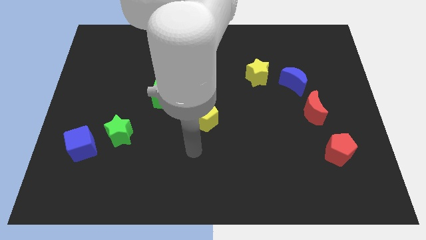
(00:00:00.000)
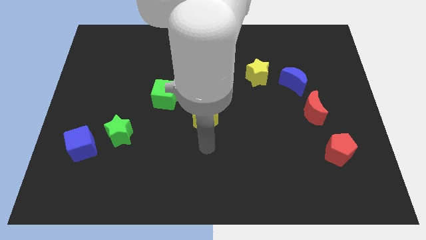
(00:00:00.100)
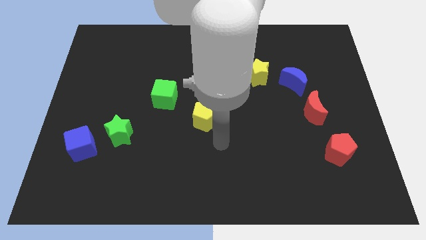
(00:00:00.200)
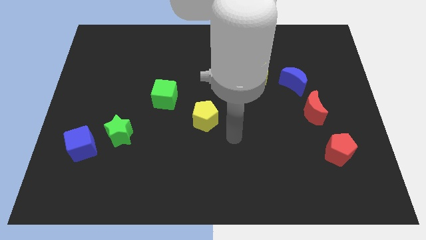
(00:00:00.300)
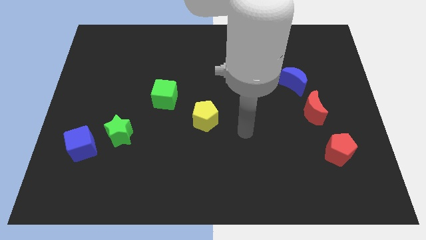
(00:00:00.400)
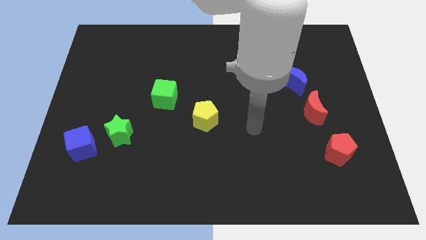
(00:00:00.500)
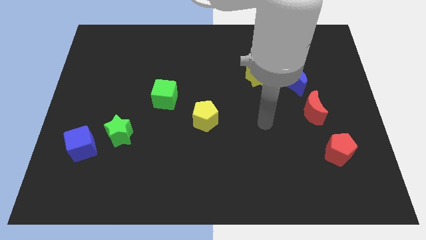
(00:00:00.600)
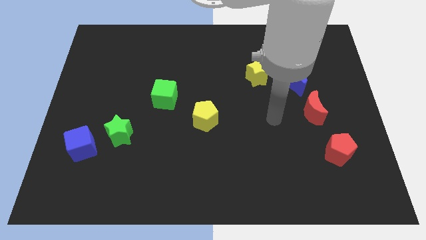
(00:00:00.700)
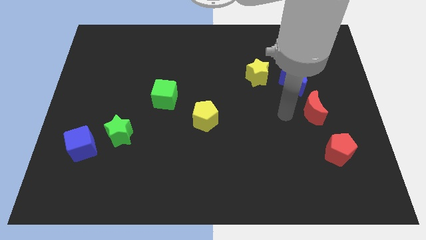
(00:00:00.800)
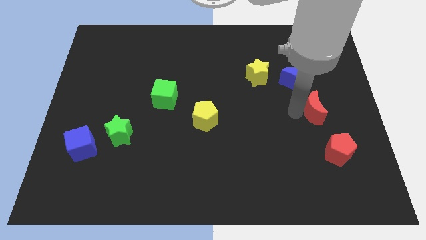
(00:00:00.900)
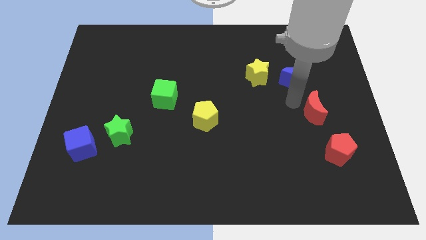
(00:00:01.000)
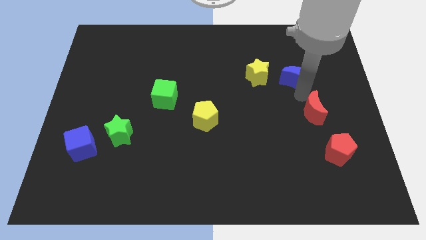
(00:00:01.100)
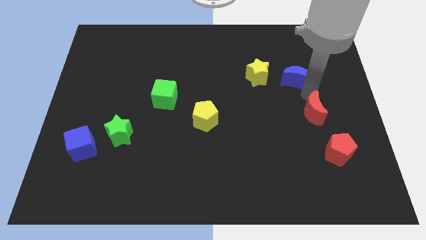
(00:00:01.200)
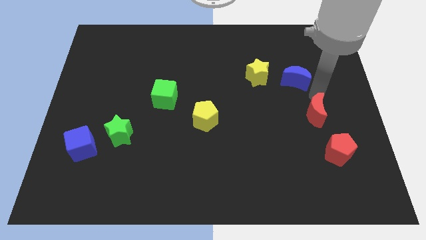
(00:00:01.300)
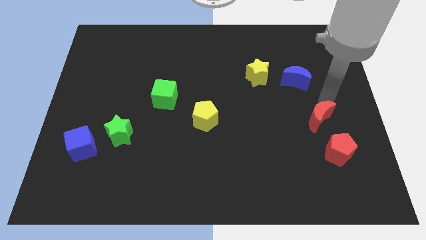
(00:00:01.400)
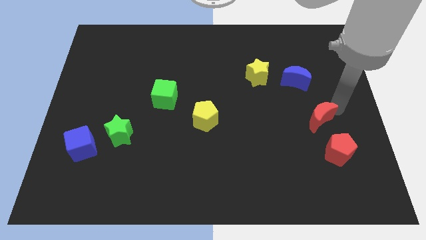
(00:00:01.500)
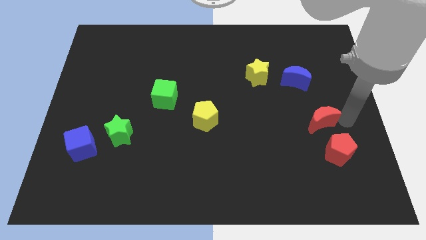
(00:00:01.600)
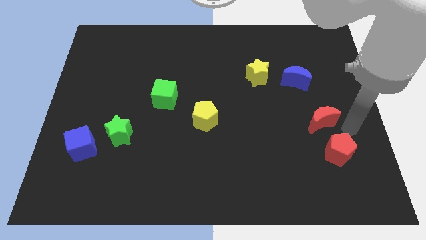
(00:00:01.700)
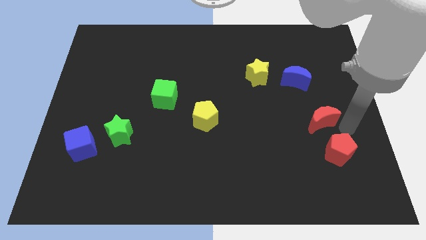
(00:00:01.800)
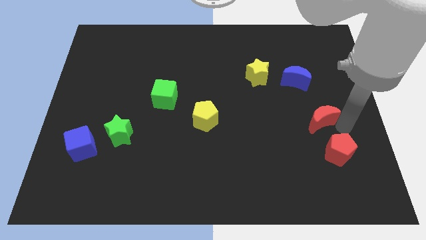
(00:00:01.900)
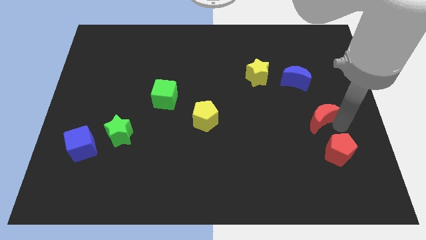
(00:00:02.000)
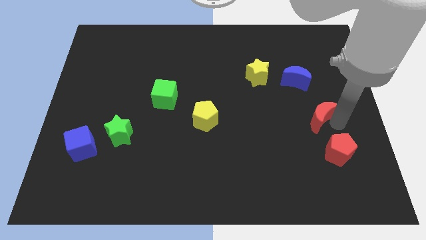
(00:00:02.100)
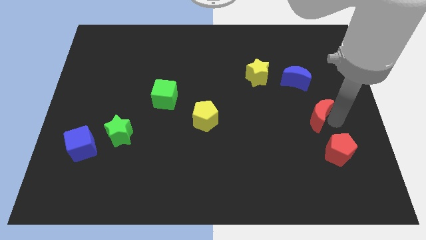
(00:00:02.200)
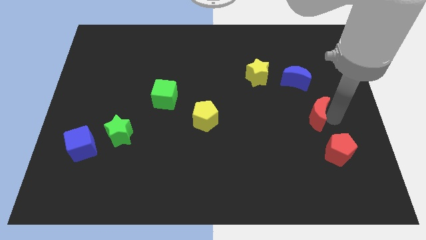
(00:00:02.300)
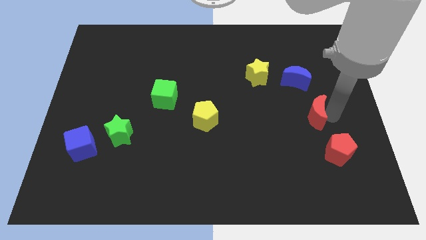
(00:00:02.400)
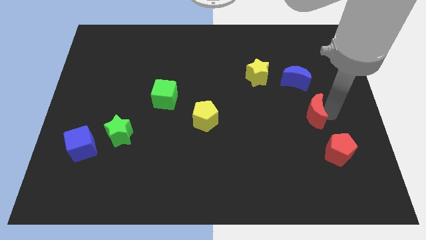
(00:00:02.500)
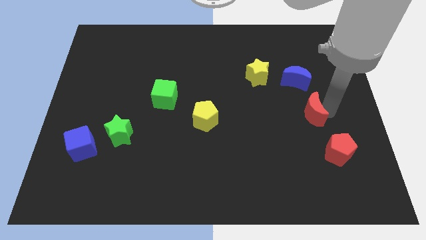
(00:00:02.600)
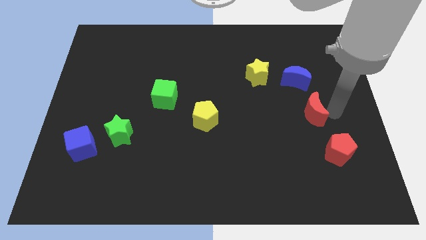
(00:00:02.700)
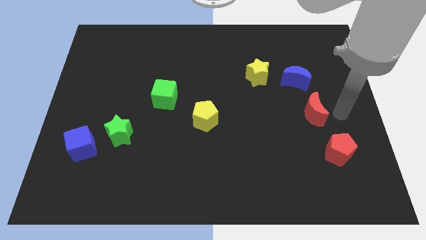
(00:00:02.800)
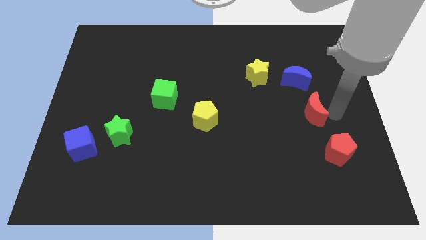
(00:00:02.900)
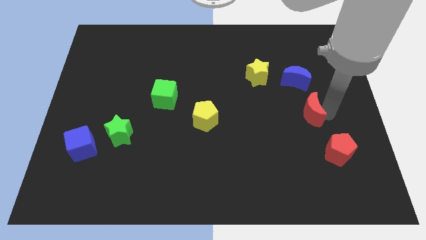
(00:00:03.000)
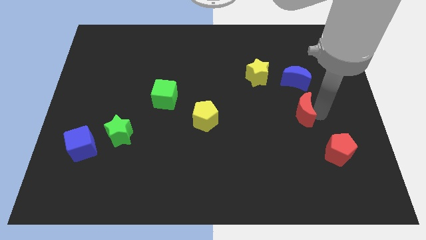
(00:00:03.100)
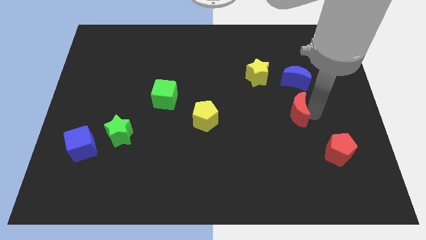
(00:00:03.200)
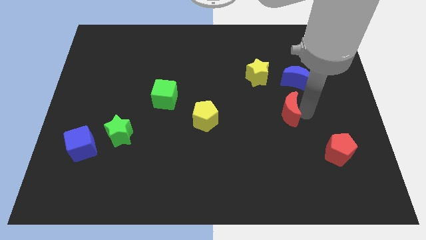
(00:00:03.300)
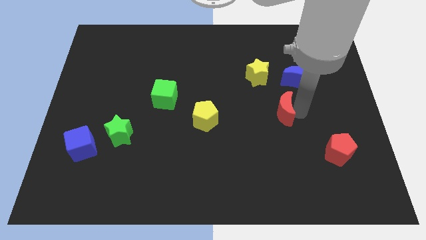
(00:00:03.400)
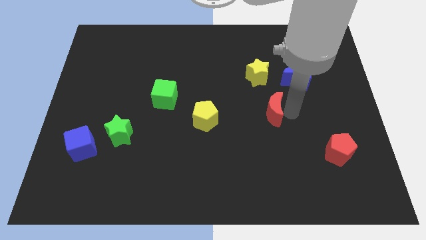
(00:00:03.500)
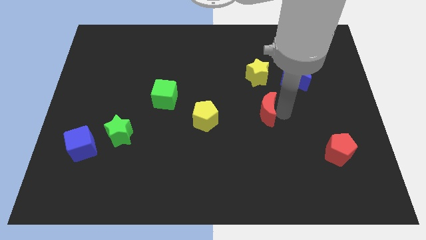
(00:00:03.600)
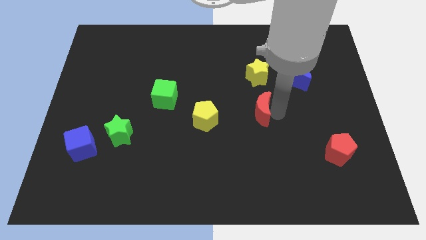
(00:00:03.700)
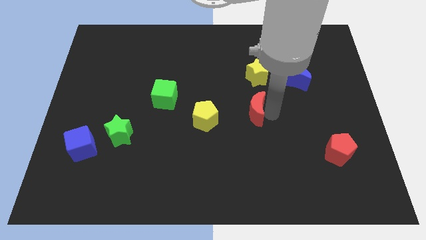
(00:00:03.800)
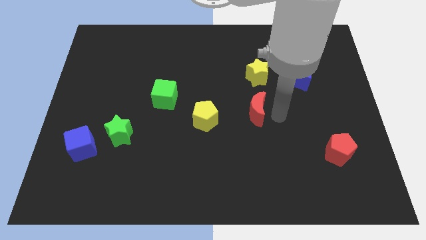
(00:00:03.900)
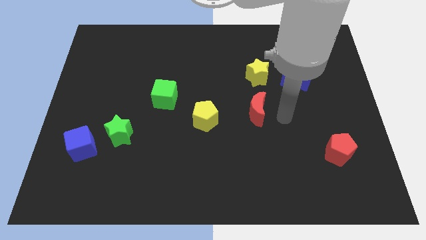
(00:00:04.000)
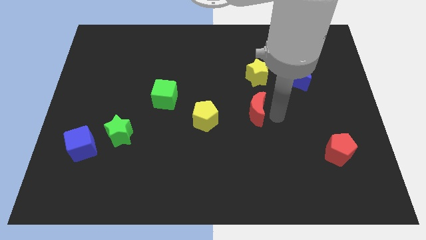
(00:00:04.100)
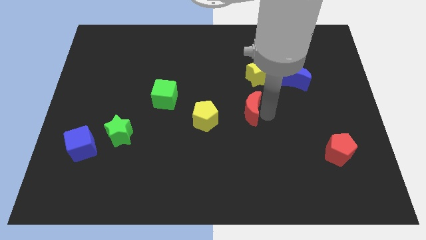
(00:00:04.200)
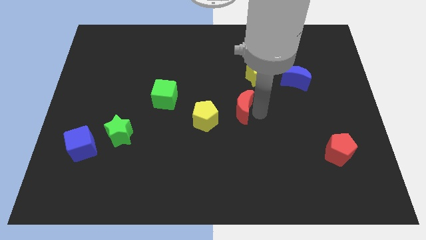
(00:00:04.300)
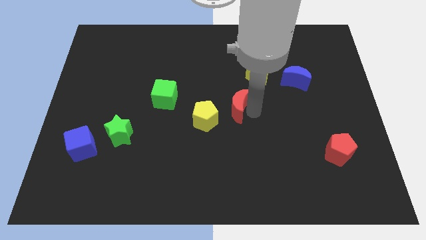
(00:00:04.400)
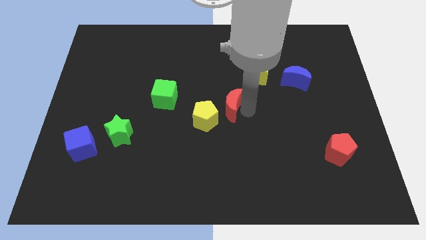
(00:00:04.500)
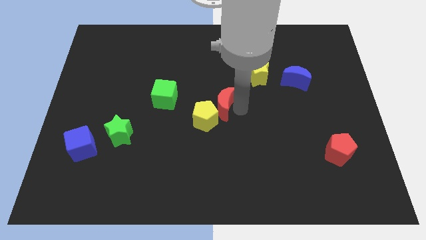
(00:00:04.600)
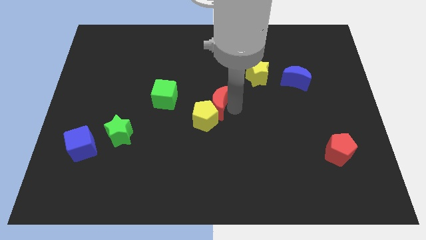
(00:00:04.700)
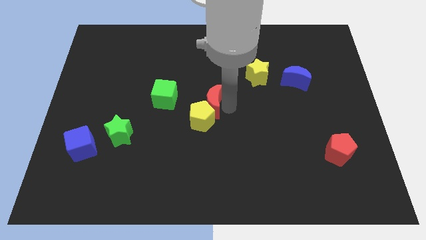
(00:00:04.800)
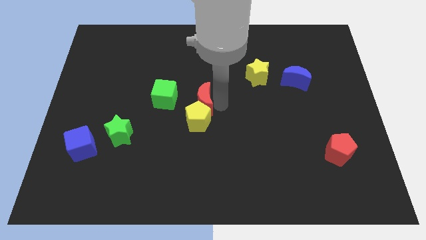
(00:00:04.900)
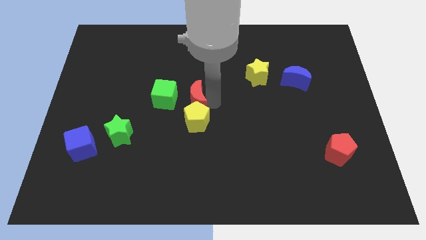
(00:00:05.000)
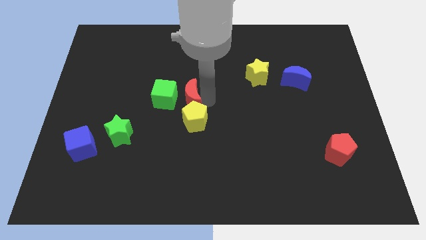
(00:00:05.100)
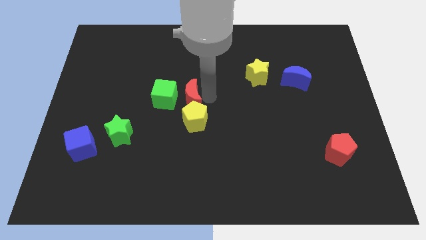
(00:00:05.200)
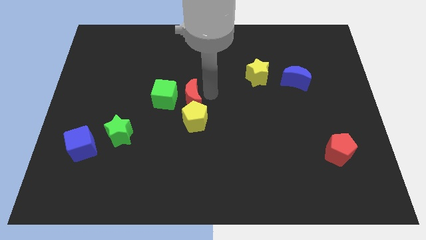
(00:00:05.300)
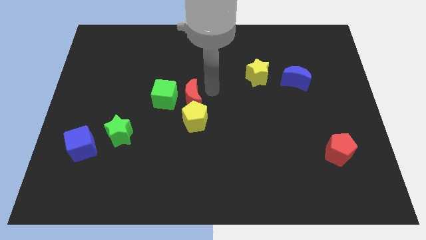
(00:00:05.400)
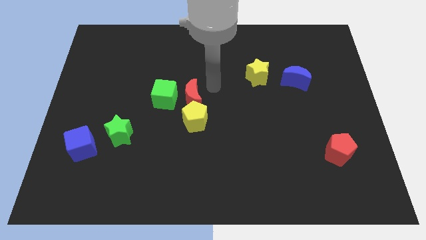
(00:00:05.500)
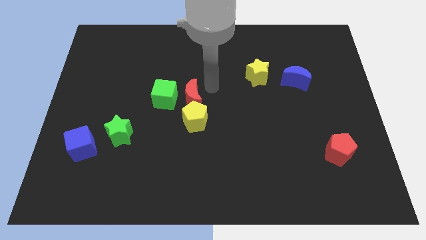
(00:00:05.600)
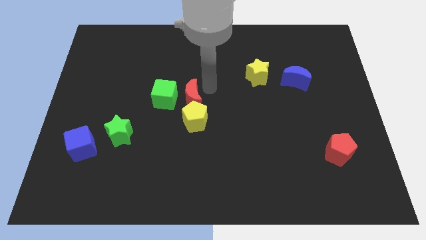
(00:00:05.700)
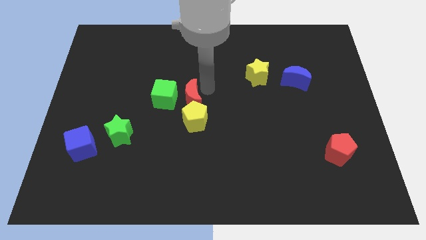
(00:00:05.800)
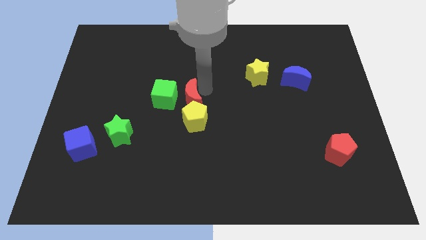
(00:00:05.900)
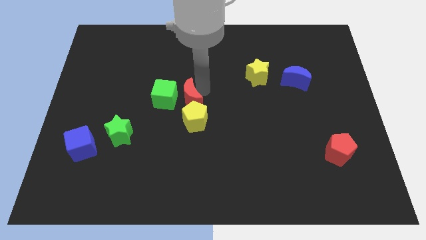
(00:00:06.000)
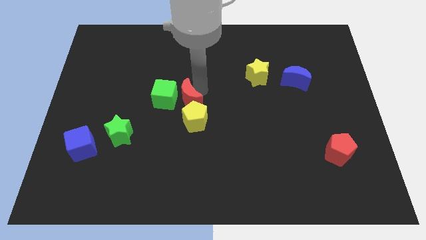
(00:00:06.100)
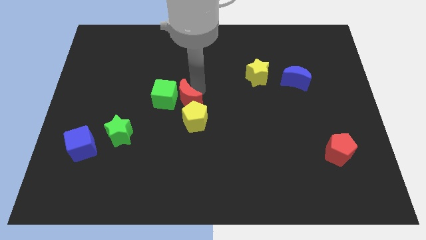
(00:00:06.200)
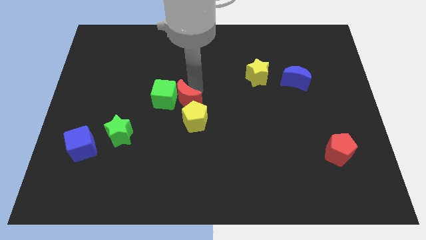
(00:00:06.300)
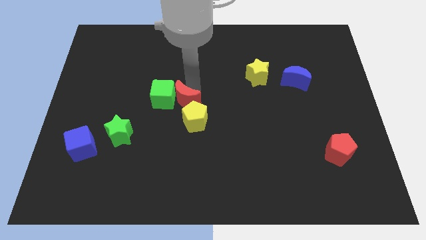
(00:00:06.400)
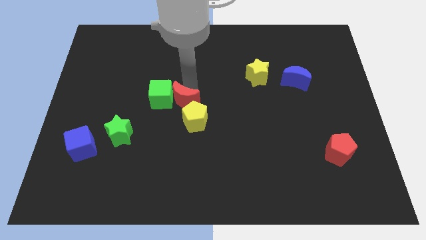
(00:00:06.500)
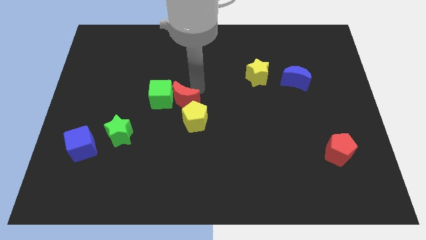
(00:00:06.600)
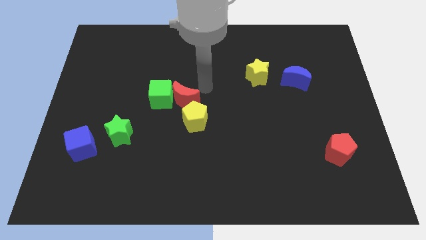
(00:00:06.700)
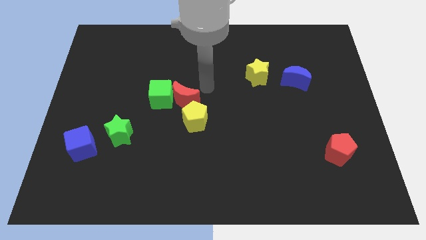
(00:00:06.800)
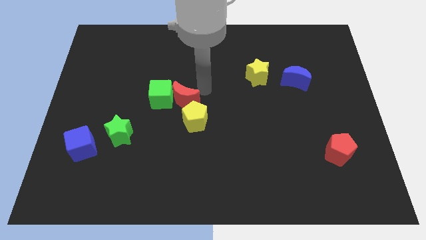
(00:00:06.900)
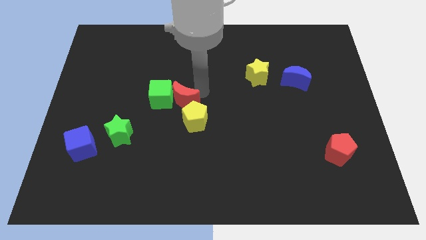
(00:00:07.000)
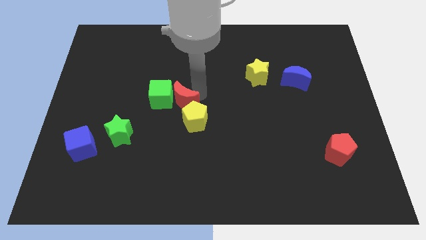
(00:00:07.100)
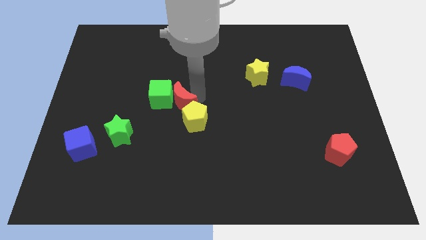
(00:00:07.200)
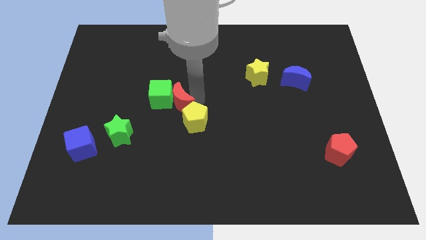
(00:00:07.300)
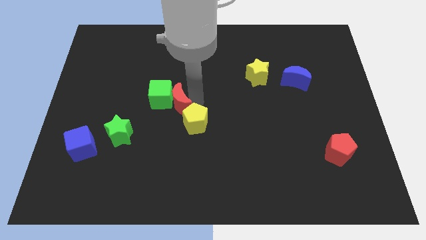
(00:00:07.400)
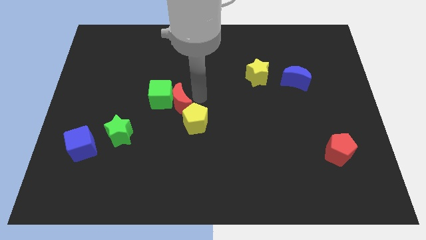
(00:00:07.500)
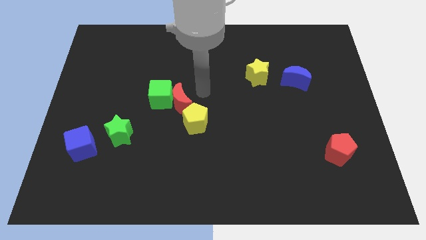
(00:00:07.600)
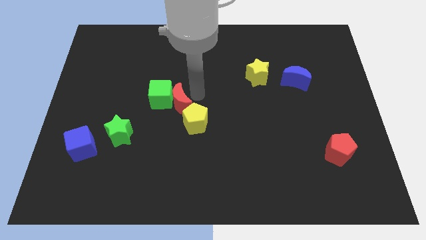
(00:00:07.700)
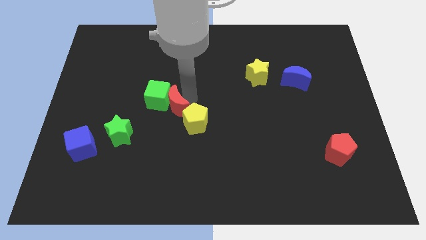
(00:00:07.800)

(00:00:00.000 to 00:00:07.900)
move the red moon to the left of the yellow pentagon
